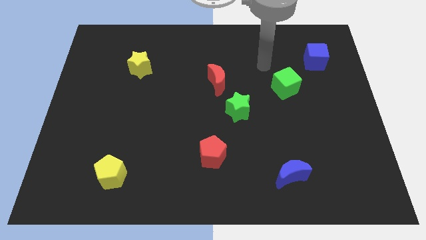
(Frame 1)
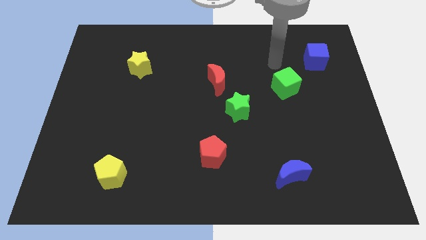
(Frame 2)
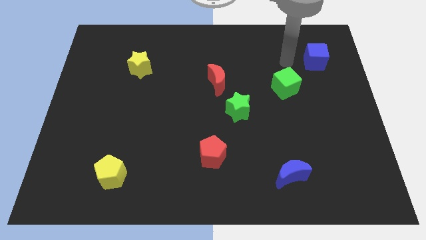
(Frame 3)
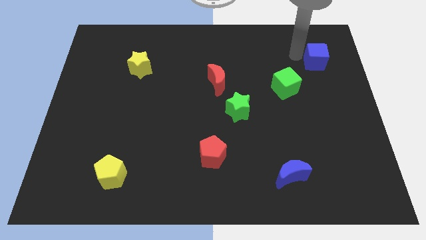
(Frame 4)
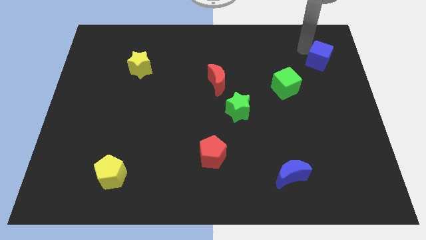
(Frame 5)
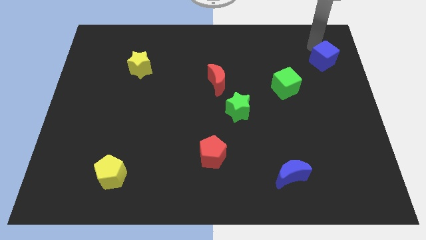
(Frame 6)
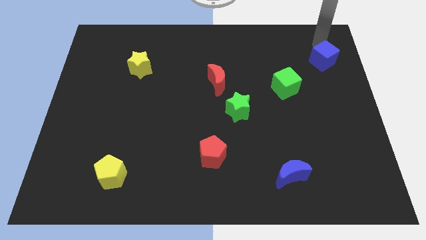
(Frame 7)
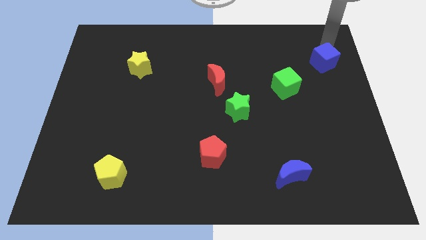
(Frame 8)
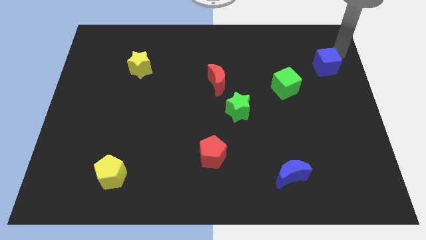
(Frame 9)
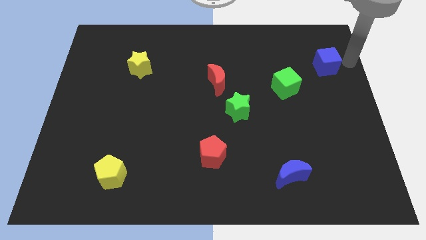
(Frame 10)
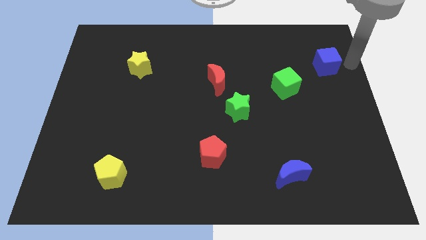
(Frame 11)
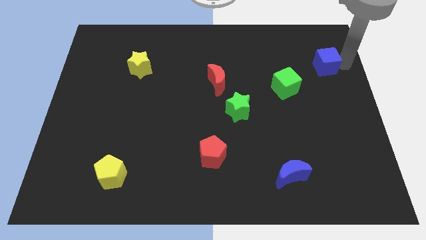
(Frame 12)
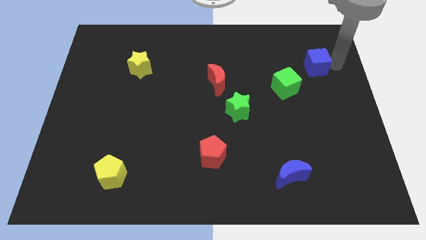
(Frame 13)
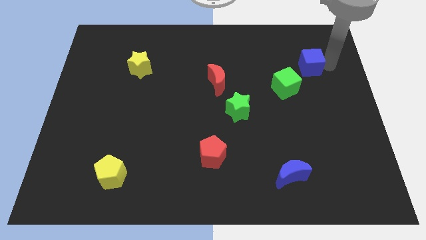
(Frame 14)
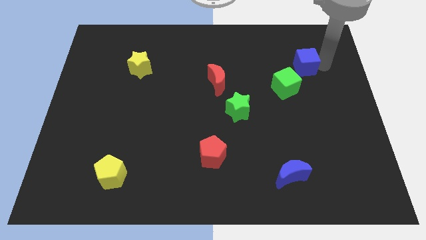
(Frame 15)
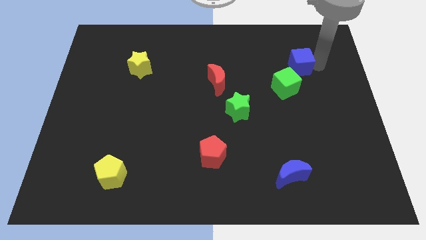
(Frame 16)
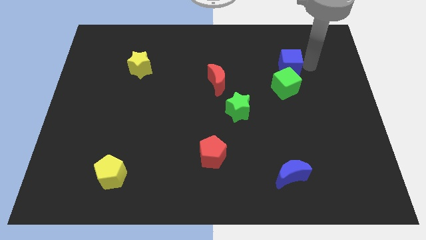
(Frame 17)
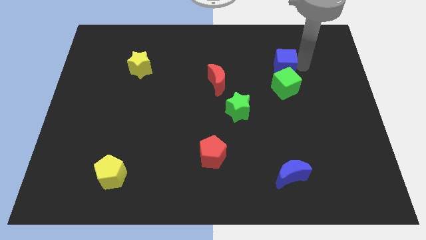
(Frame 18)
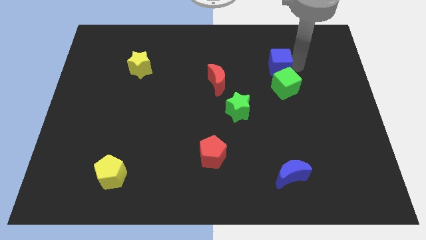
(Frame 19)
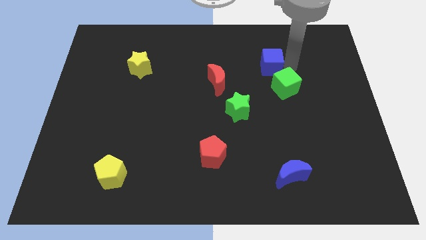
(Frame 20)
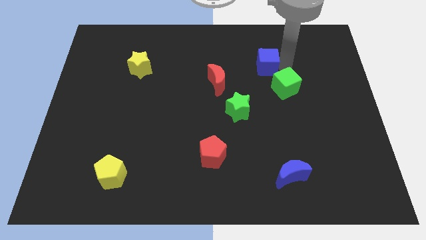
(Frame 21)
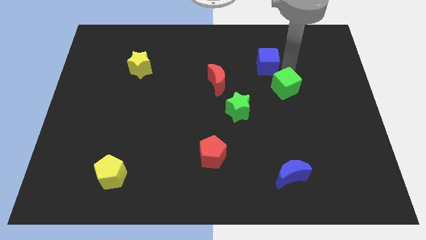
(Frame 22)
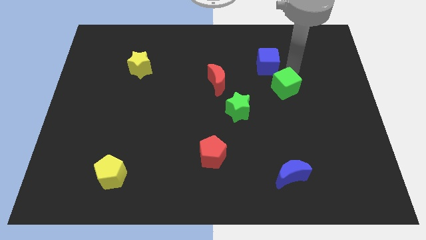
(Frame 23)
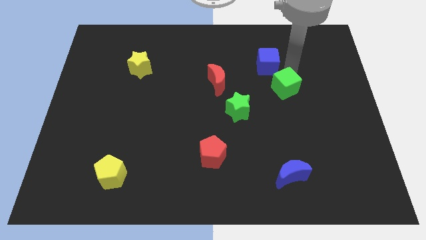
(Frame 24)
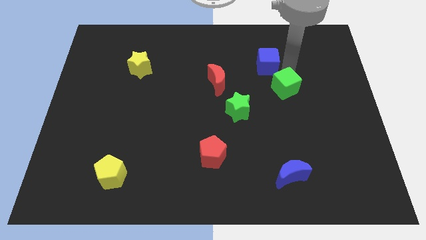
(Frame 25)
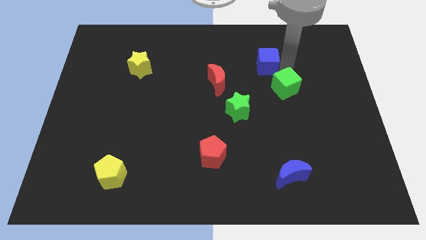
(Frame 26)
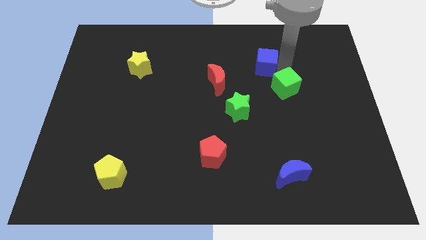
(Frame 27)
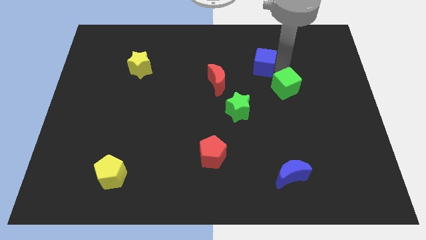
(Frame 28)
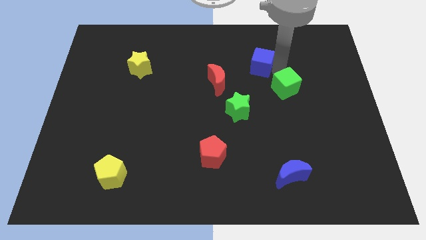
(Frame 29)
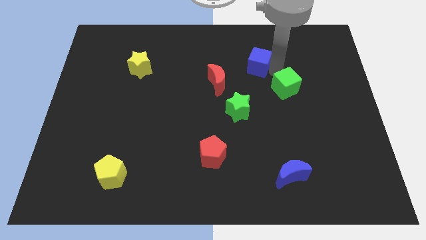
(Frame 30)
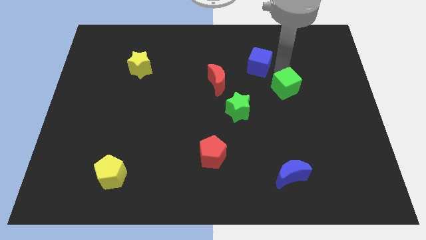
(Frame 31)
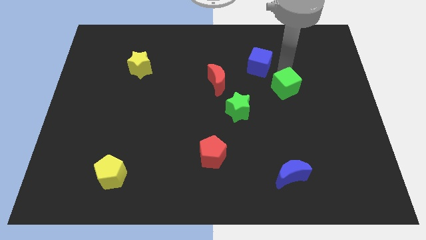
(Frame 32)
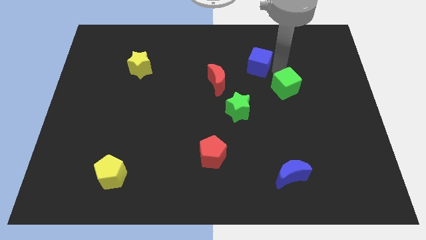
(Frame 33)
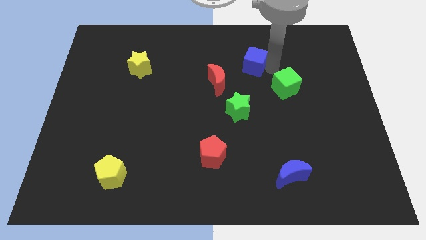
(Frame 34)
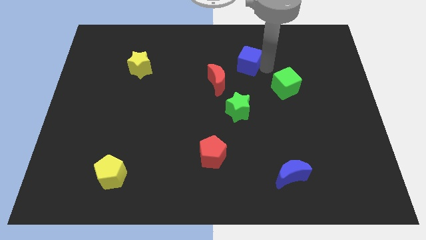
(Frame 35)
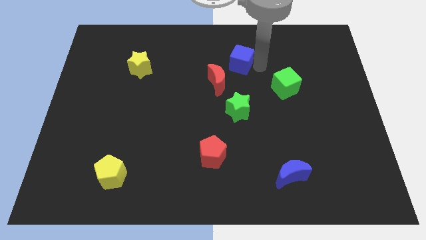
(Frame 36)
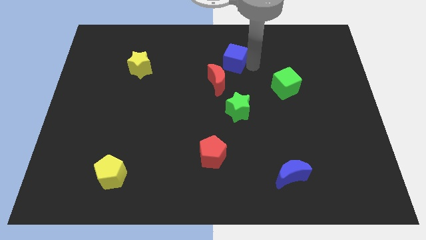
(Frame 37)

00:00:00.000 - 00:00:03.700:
move the blue cube to the left

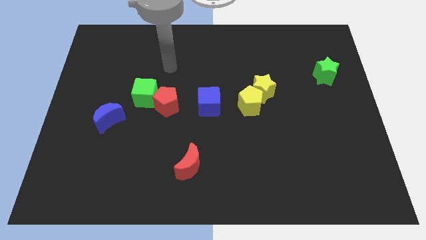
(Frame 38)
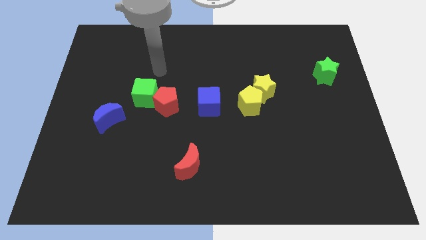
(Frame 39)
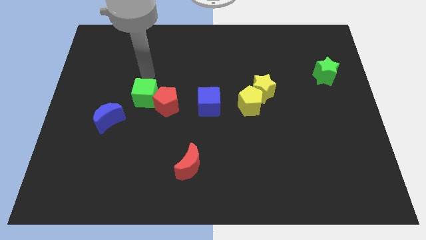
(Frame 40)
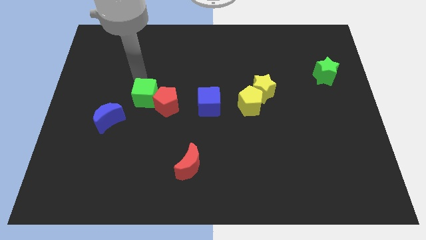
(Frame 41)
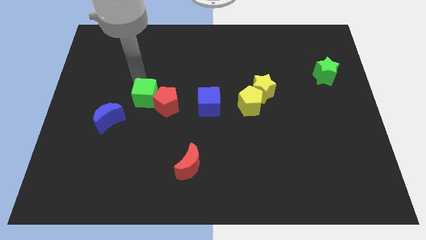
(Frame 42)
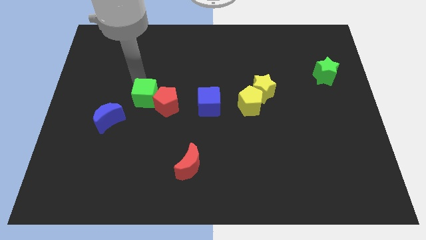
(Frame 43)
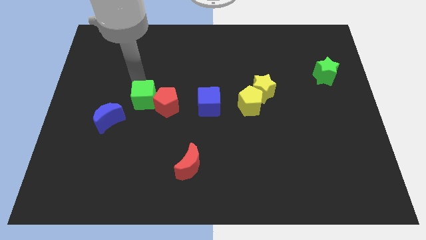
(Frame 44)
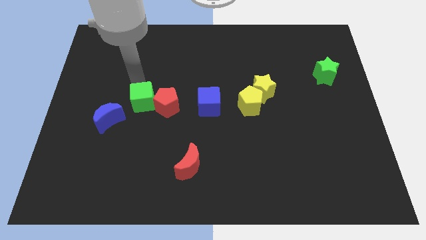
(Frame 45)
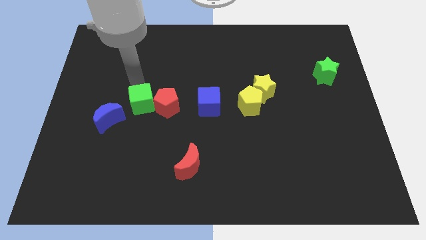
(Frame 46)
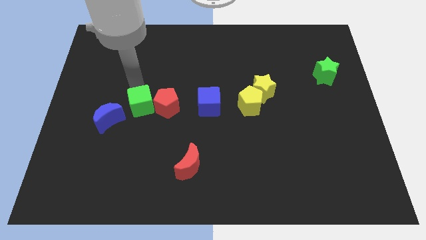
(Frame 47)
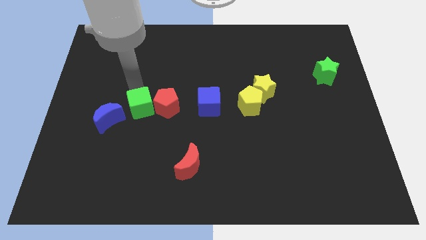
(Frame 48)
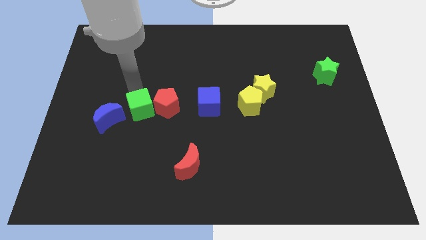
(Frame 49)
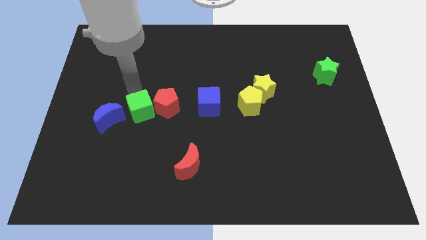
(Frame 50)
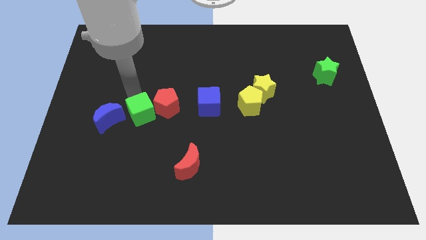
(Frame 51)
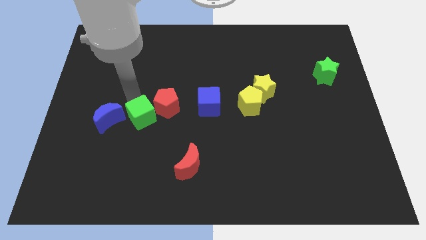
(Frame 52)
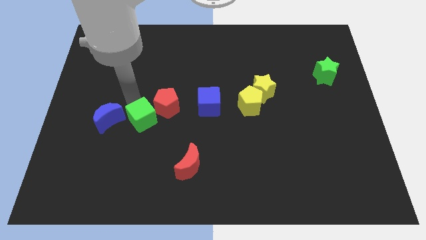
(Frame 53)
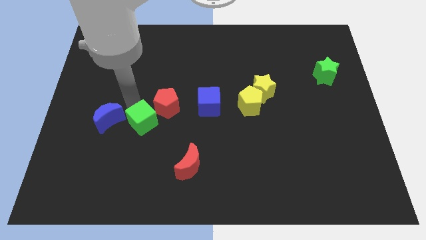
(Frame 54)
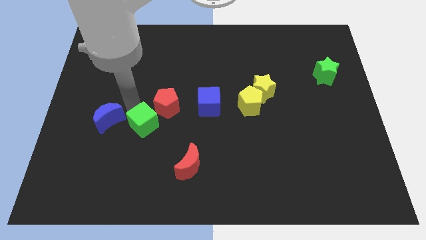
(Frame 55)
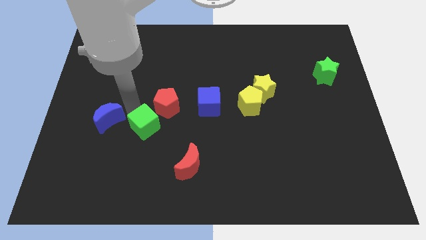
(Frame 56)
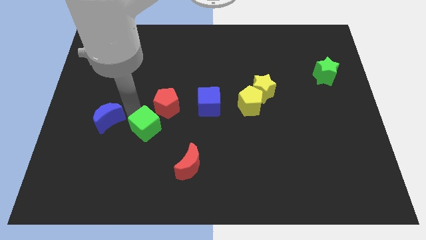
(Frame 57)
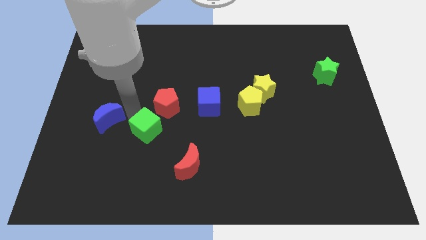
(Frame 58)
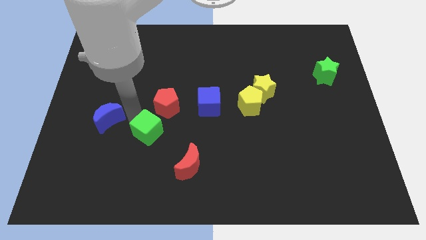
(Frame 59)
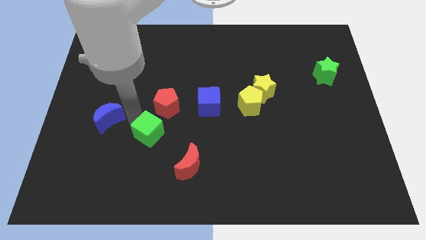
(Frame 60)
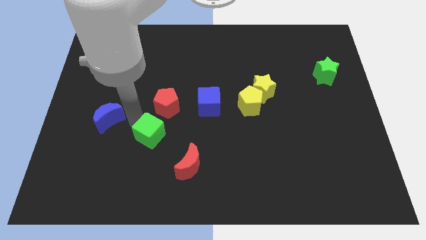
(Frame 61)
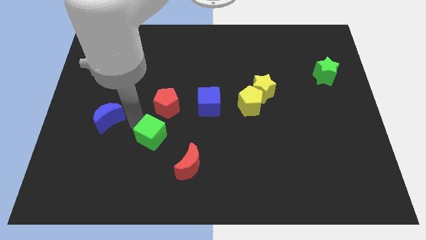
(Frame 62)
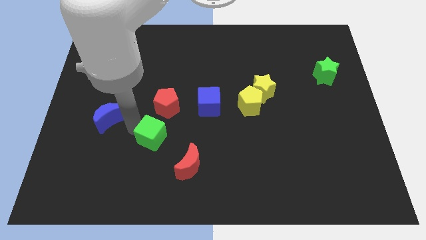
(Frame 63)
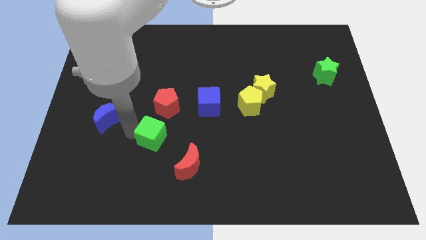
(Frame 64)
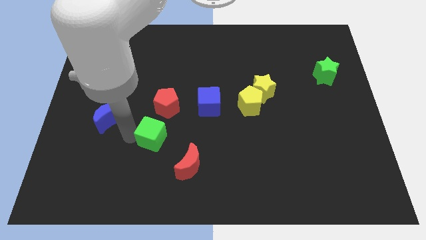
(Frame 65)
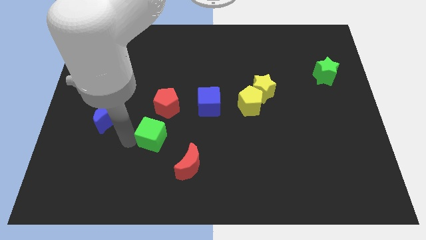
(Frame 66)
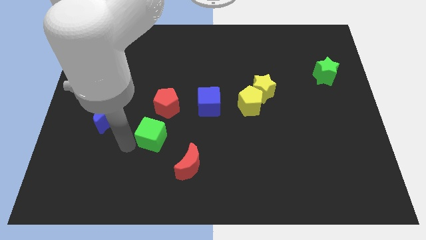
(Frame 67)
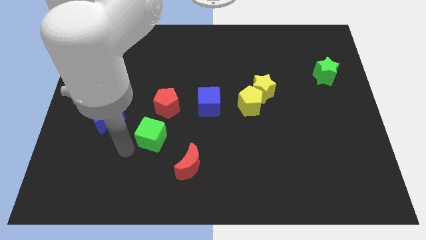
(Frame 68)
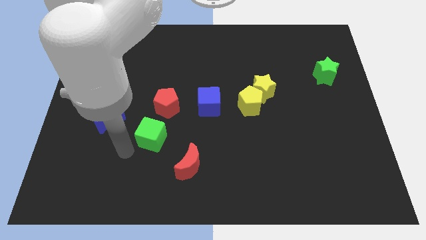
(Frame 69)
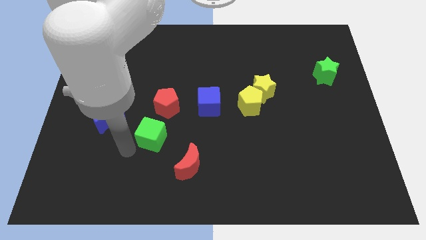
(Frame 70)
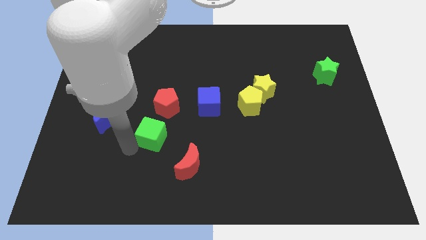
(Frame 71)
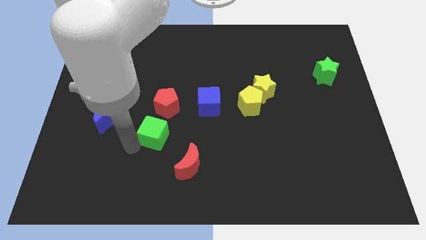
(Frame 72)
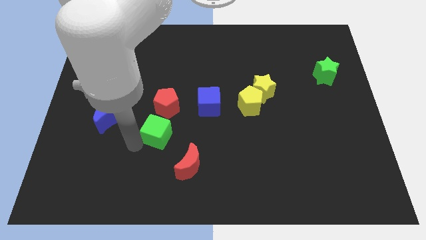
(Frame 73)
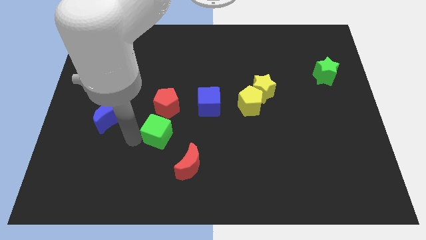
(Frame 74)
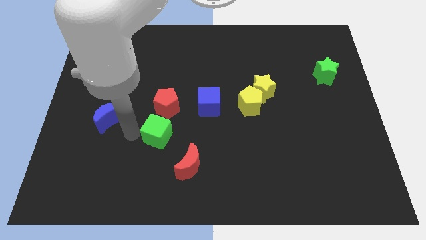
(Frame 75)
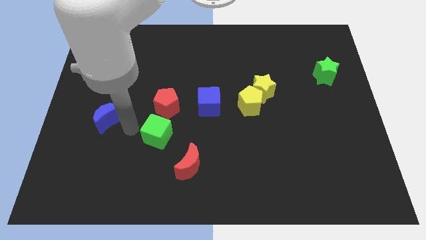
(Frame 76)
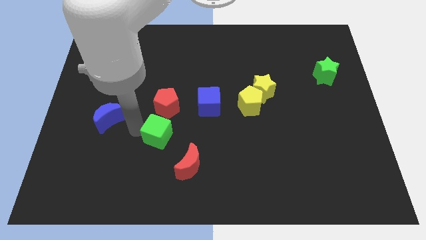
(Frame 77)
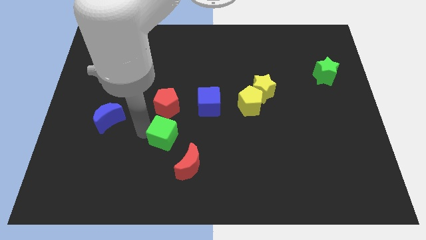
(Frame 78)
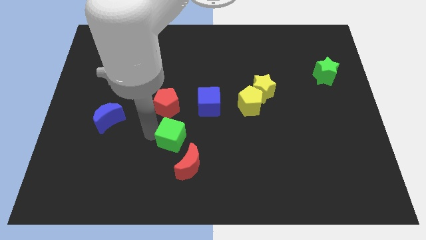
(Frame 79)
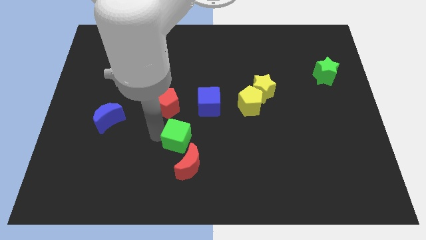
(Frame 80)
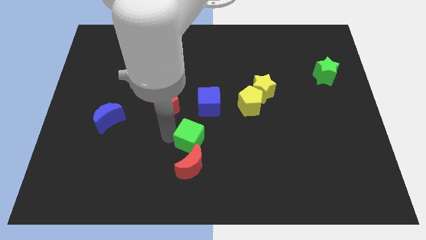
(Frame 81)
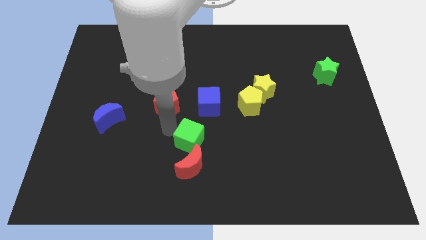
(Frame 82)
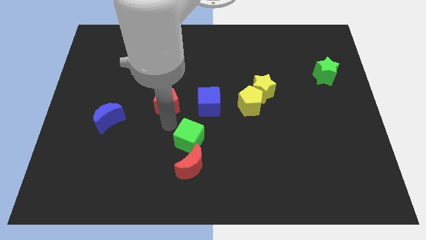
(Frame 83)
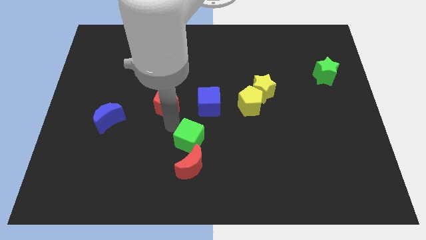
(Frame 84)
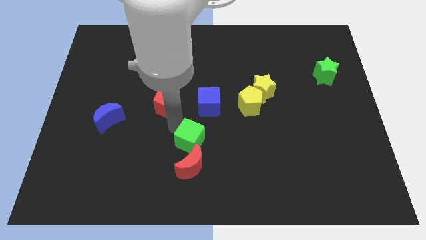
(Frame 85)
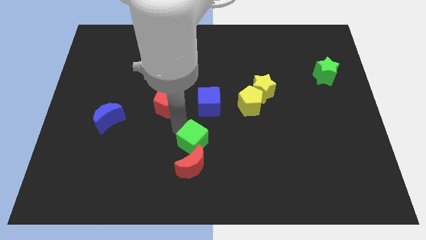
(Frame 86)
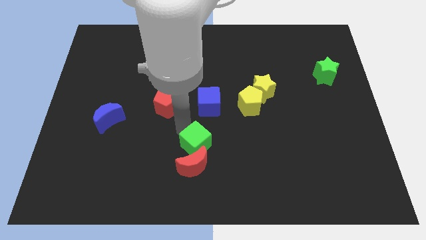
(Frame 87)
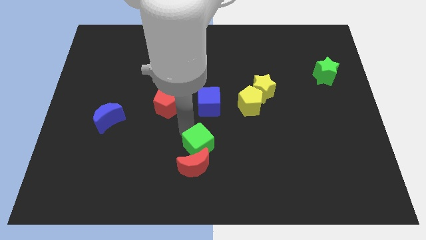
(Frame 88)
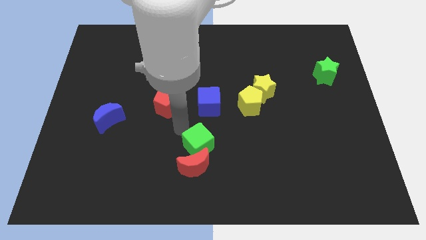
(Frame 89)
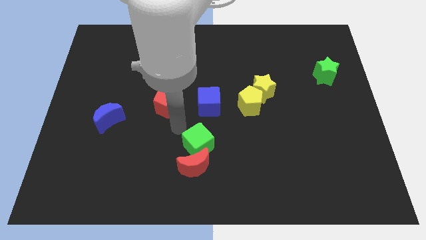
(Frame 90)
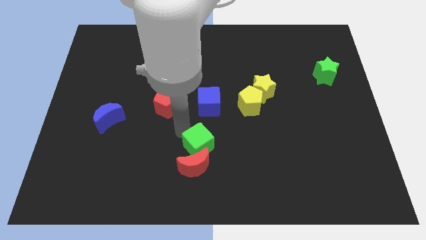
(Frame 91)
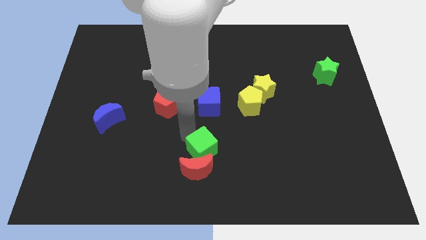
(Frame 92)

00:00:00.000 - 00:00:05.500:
push the green cube down and right diagonally
